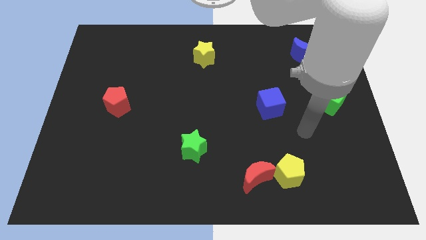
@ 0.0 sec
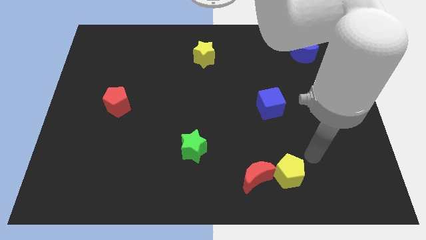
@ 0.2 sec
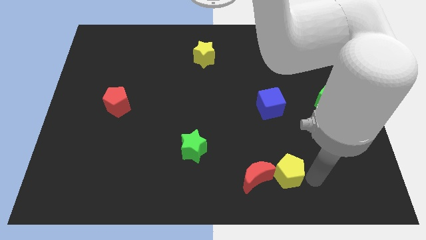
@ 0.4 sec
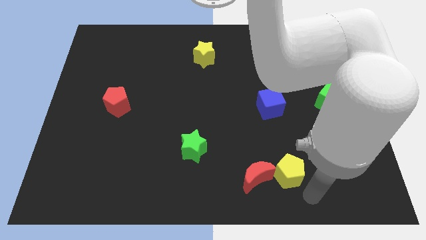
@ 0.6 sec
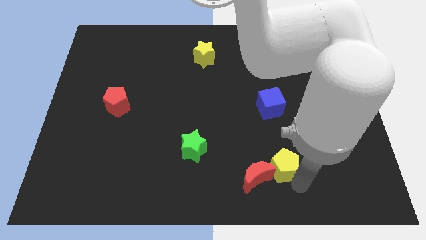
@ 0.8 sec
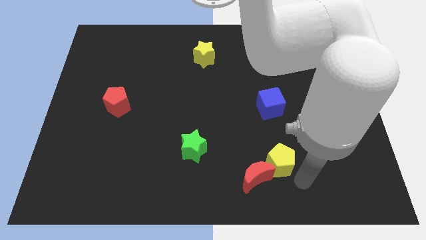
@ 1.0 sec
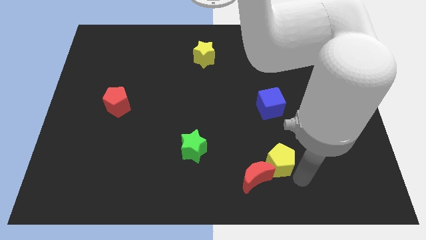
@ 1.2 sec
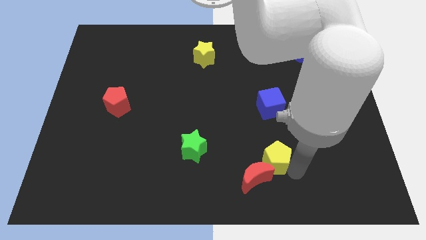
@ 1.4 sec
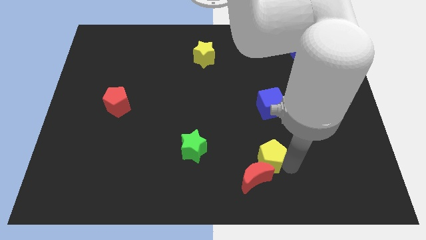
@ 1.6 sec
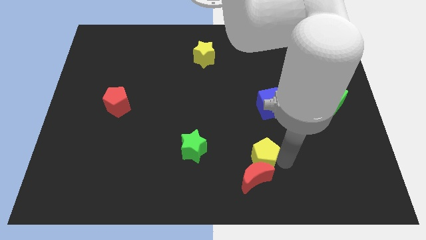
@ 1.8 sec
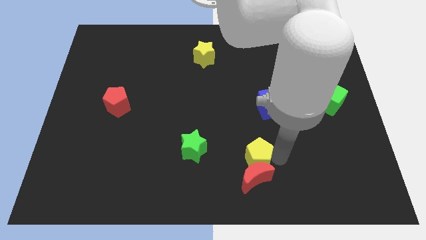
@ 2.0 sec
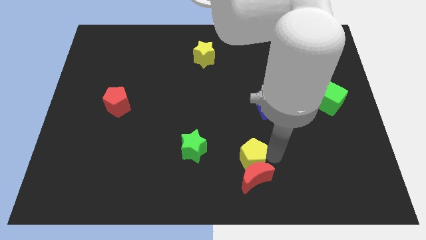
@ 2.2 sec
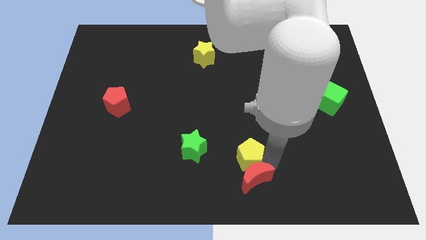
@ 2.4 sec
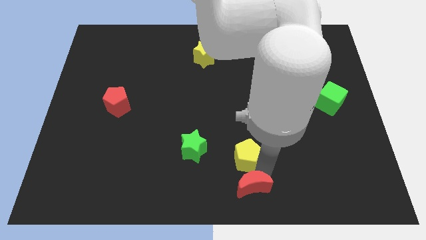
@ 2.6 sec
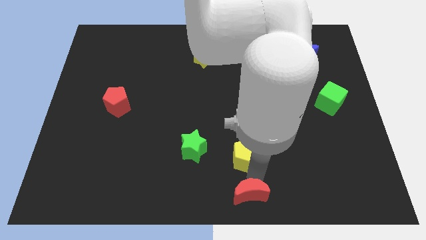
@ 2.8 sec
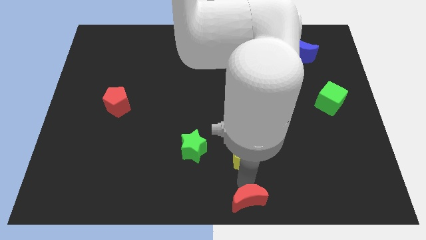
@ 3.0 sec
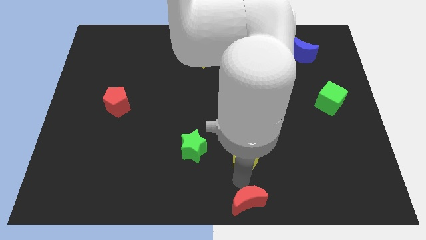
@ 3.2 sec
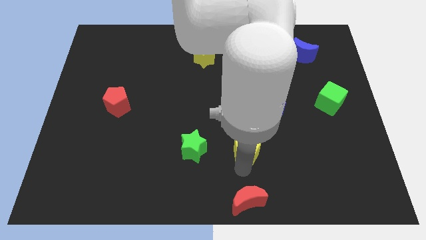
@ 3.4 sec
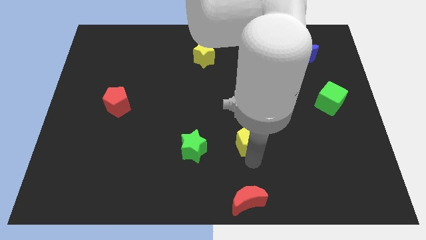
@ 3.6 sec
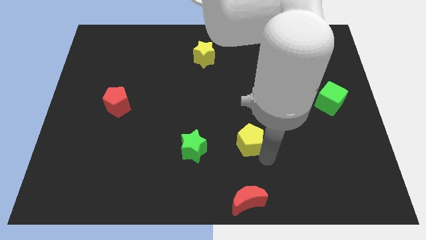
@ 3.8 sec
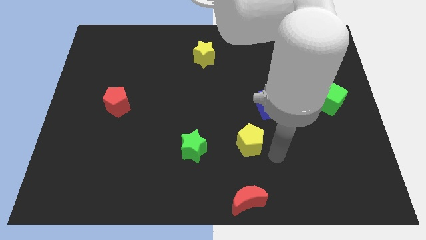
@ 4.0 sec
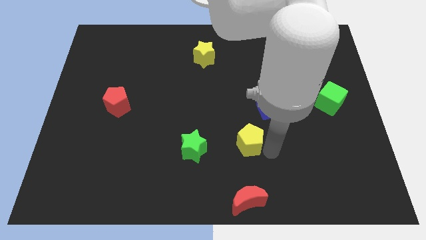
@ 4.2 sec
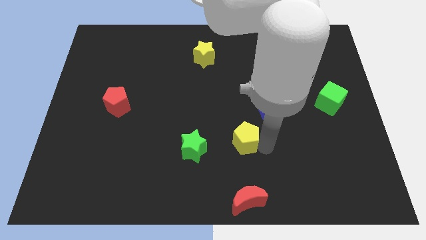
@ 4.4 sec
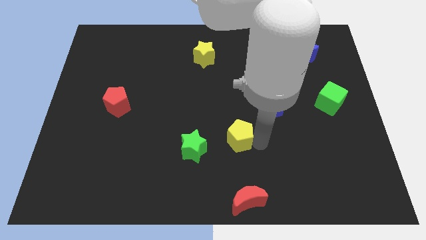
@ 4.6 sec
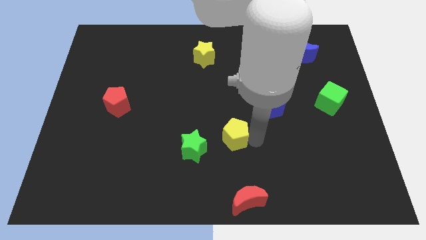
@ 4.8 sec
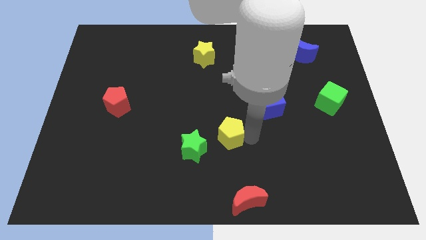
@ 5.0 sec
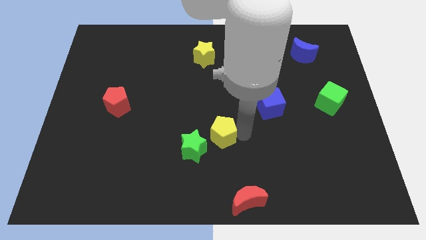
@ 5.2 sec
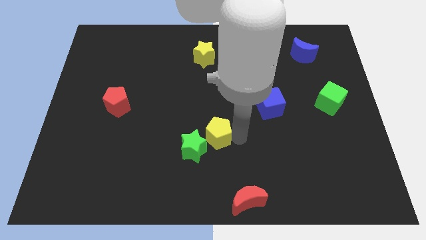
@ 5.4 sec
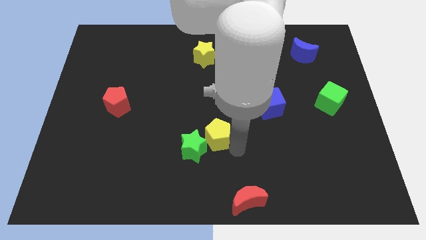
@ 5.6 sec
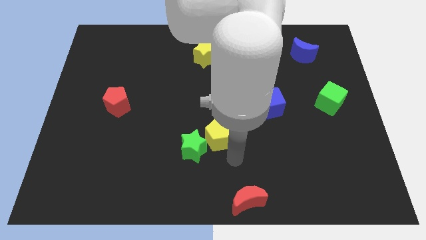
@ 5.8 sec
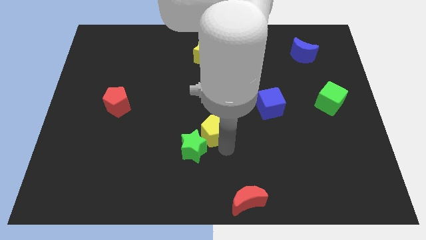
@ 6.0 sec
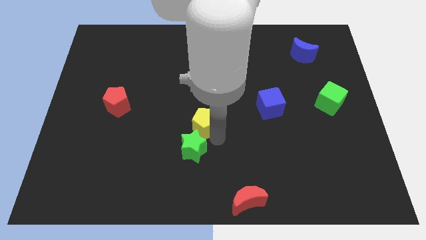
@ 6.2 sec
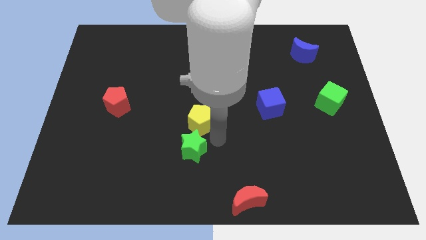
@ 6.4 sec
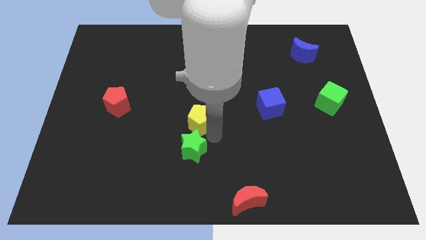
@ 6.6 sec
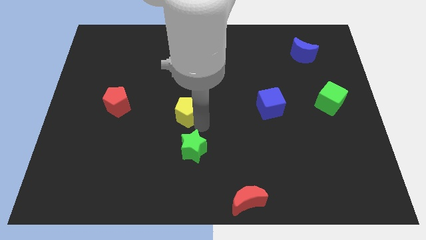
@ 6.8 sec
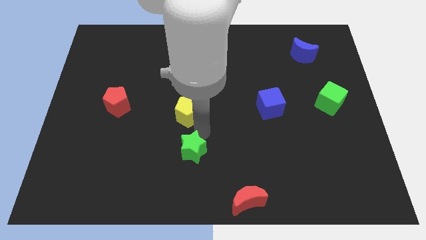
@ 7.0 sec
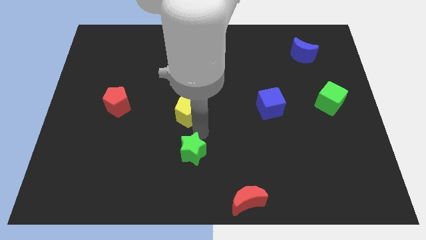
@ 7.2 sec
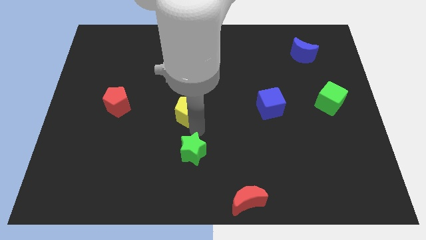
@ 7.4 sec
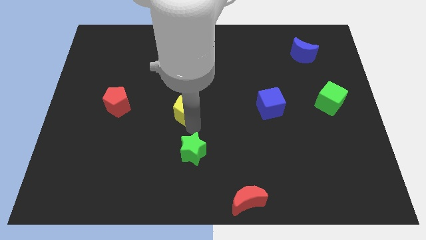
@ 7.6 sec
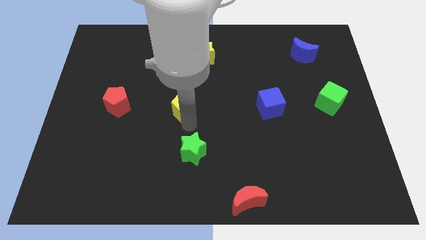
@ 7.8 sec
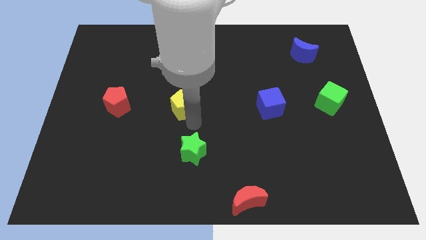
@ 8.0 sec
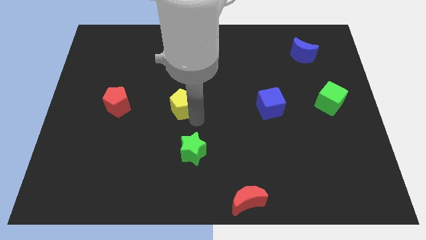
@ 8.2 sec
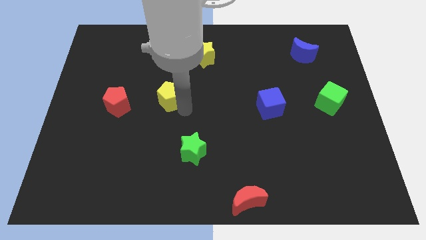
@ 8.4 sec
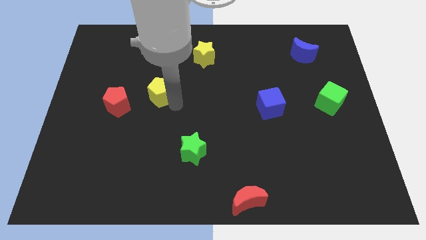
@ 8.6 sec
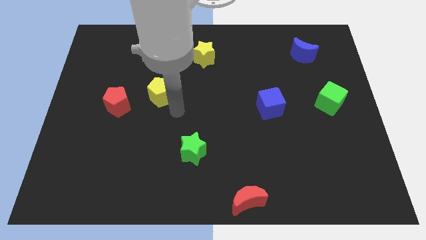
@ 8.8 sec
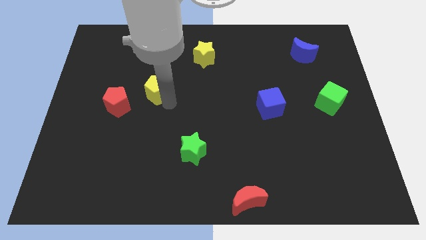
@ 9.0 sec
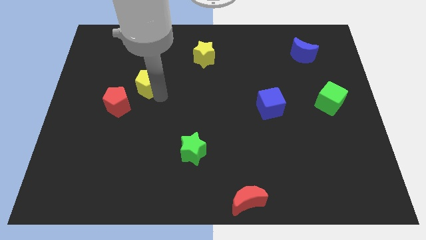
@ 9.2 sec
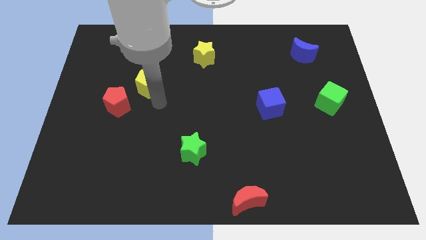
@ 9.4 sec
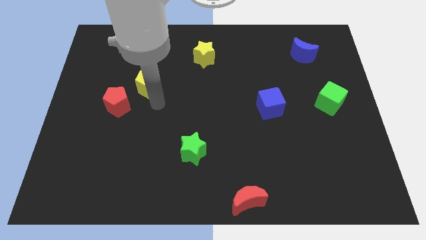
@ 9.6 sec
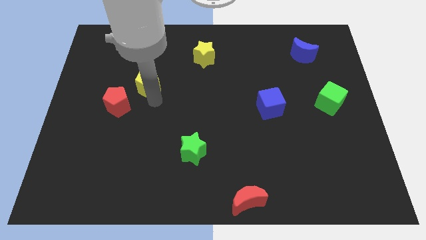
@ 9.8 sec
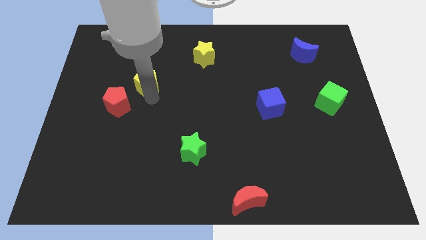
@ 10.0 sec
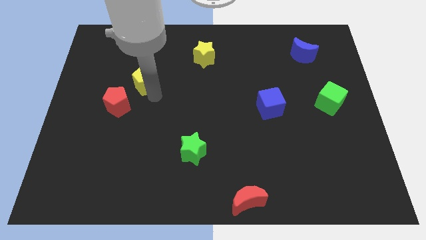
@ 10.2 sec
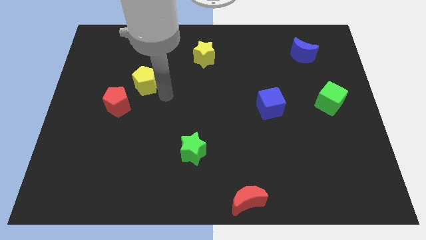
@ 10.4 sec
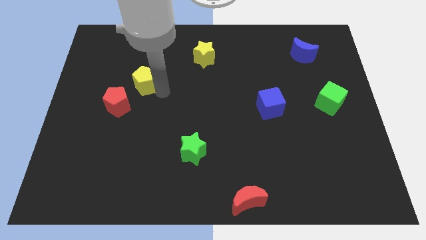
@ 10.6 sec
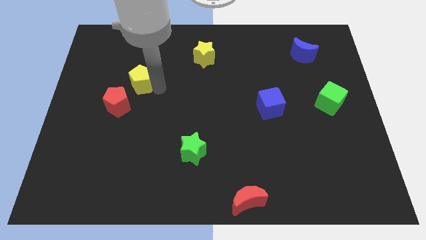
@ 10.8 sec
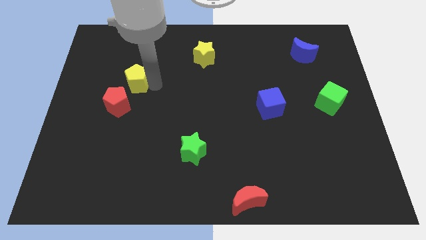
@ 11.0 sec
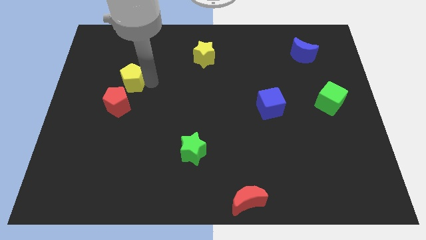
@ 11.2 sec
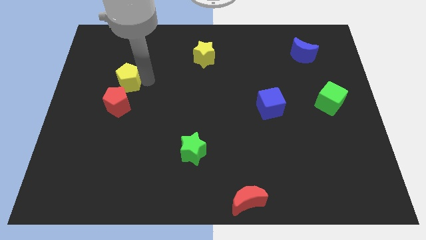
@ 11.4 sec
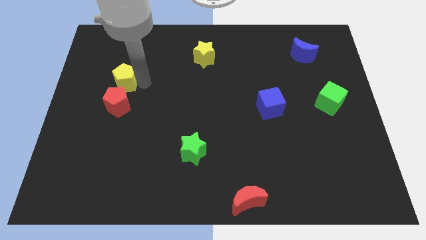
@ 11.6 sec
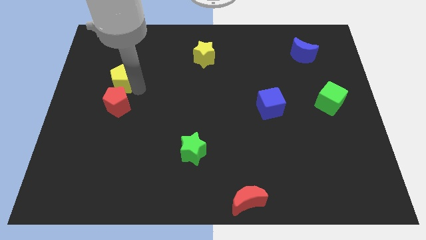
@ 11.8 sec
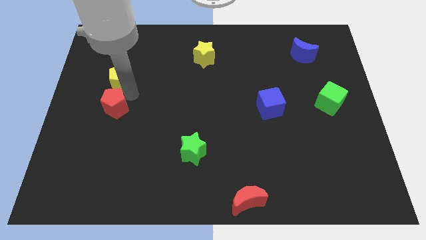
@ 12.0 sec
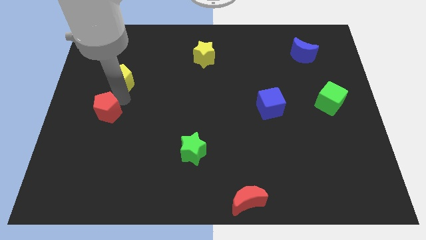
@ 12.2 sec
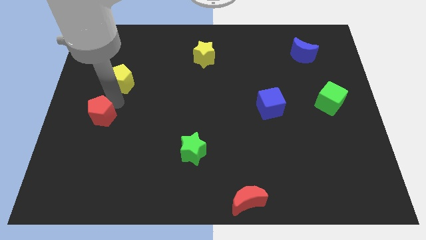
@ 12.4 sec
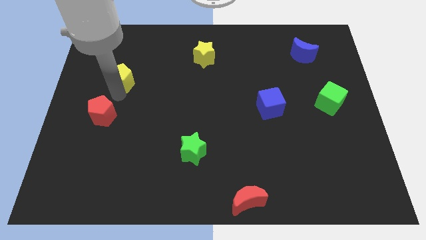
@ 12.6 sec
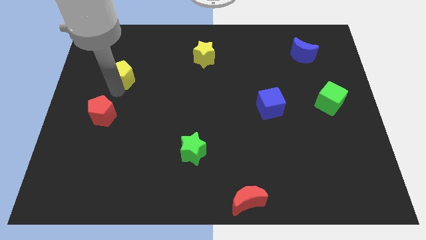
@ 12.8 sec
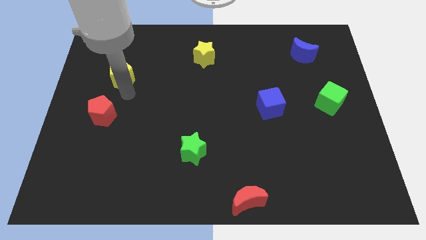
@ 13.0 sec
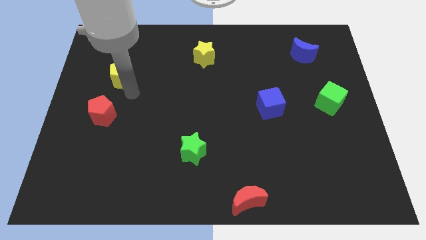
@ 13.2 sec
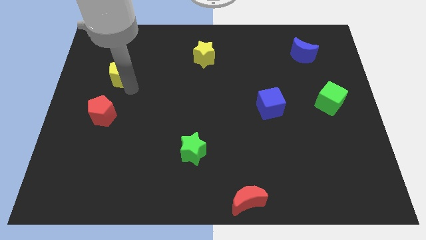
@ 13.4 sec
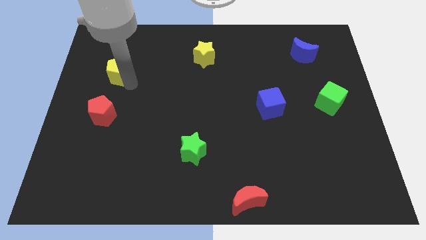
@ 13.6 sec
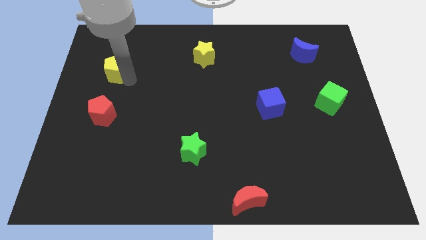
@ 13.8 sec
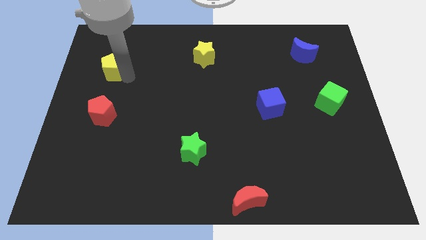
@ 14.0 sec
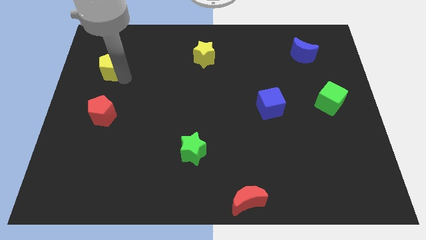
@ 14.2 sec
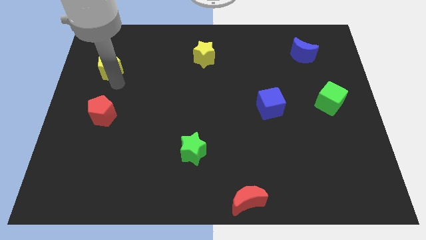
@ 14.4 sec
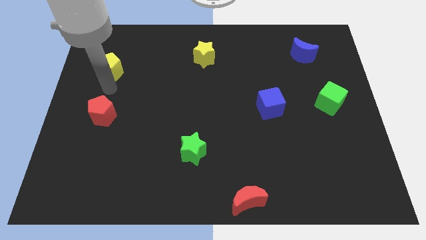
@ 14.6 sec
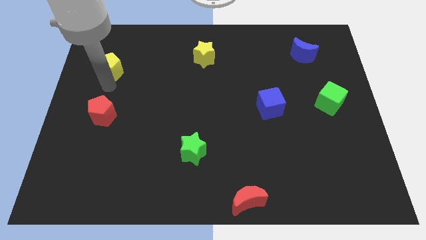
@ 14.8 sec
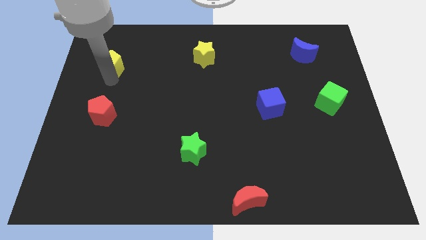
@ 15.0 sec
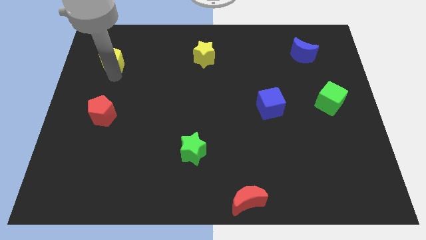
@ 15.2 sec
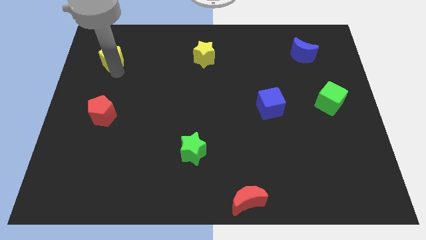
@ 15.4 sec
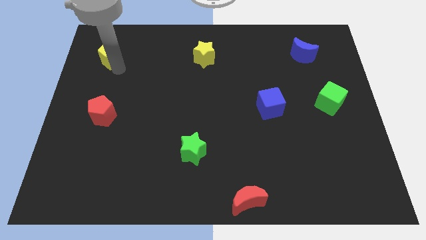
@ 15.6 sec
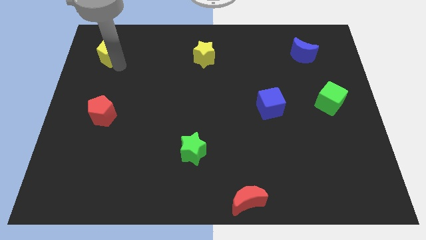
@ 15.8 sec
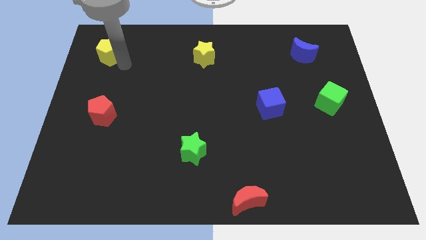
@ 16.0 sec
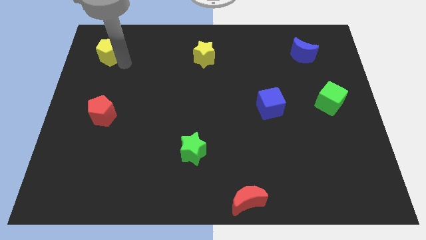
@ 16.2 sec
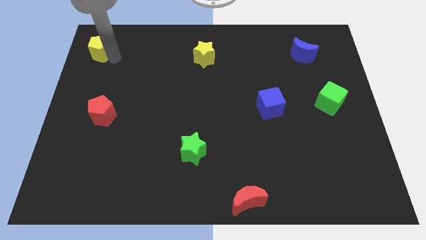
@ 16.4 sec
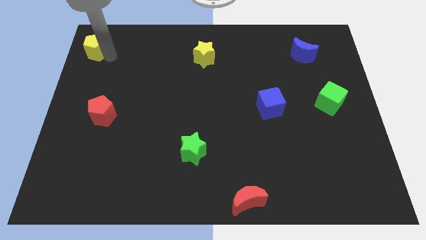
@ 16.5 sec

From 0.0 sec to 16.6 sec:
slide the yellow pentagon to the top left corner
